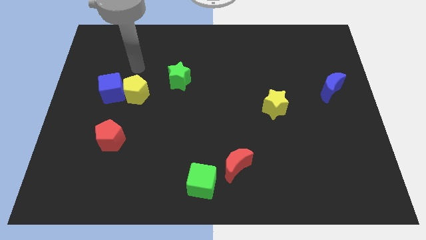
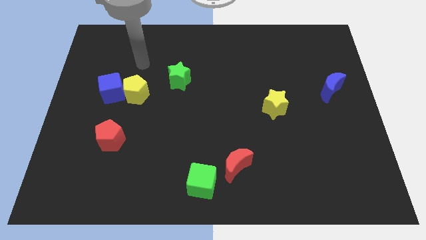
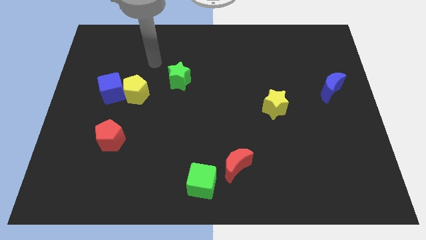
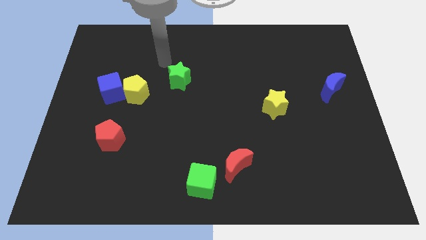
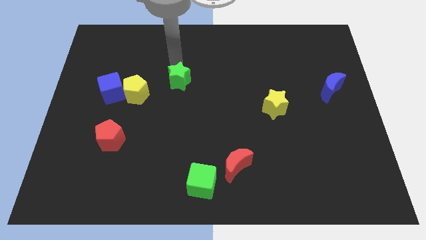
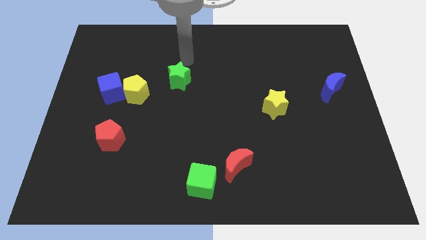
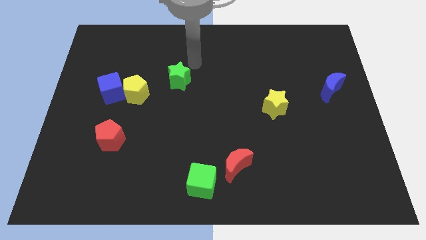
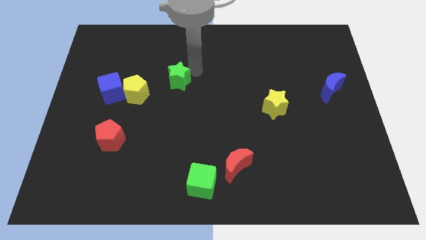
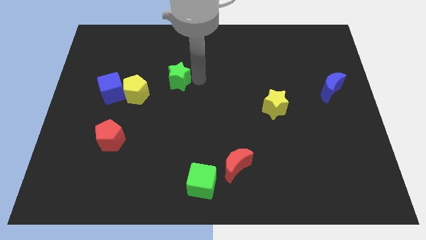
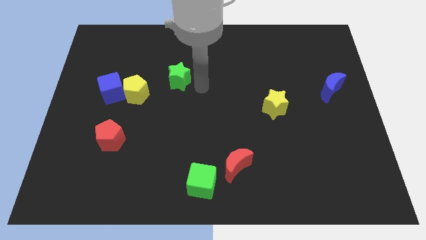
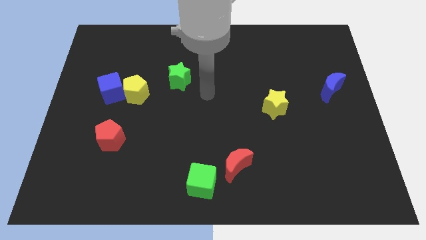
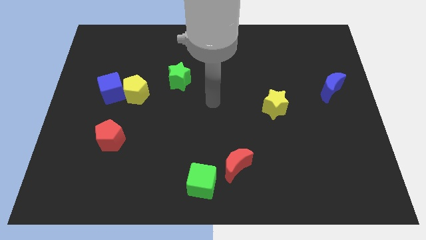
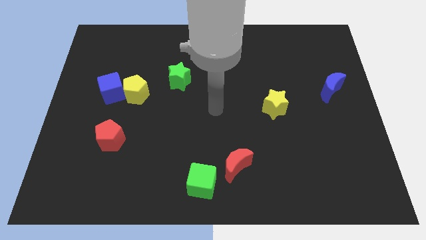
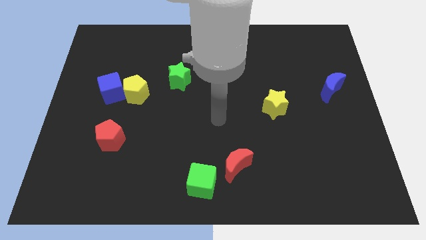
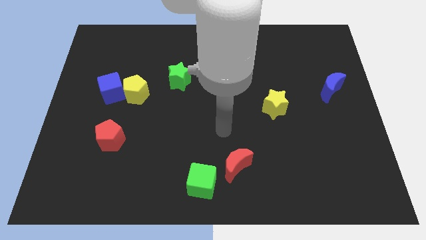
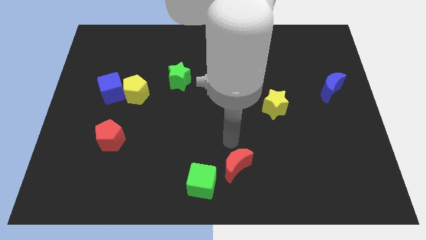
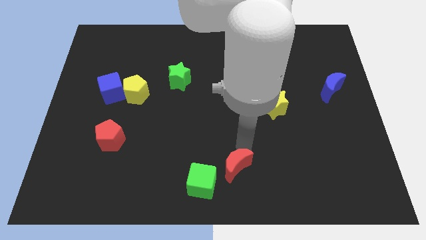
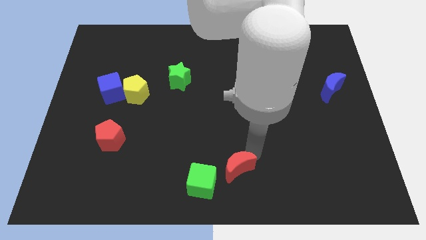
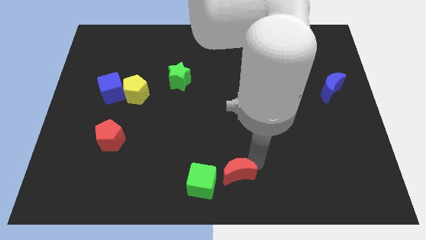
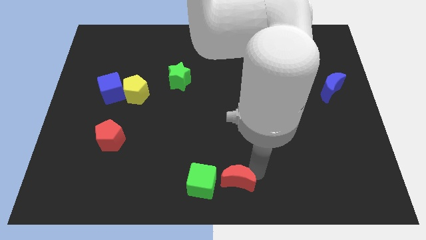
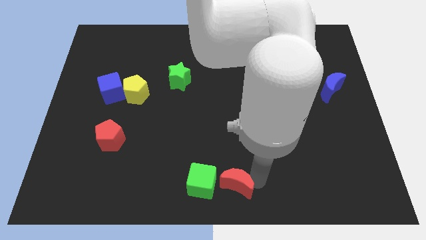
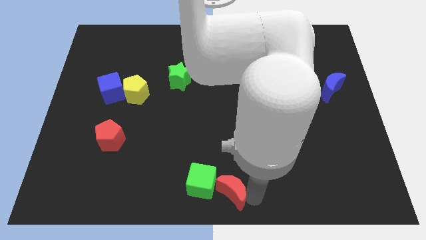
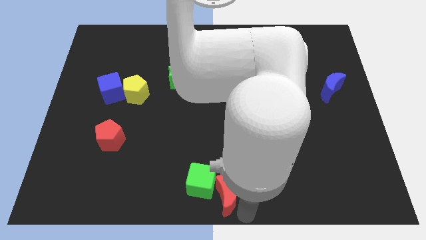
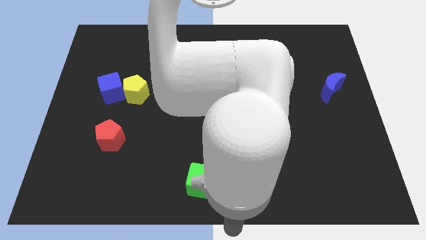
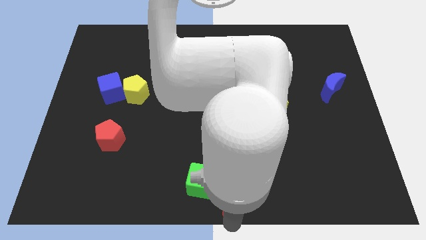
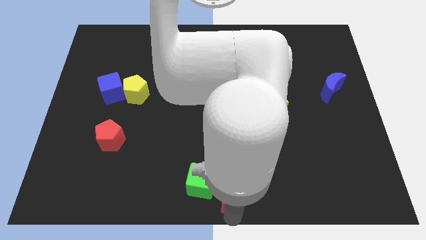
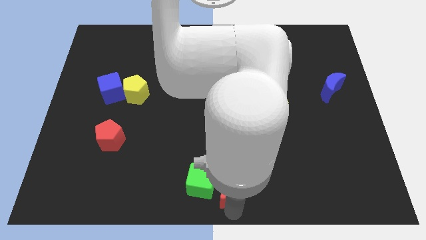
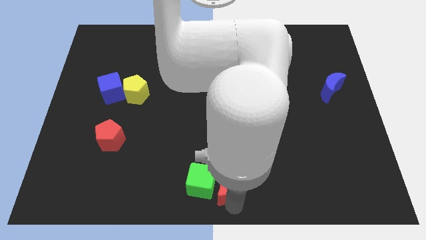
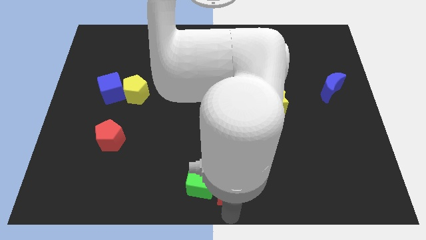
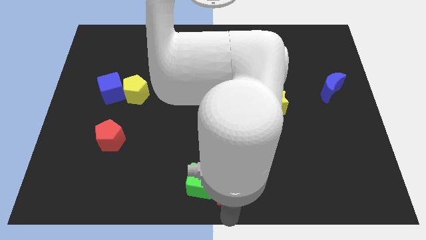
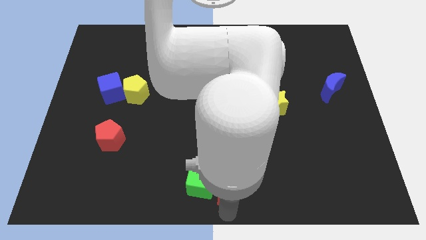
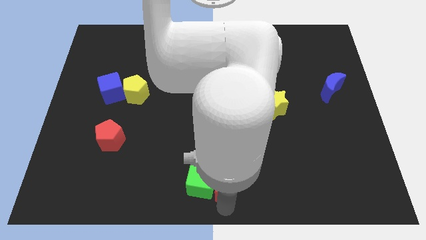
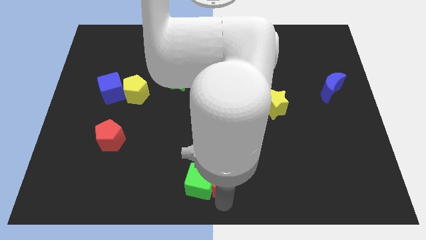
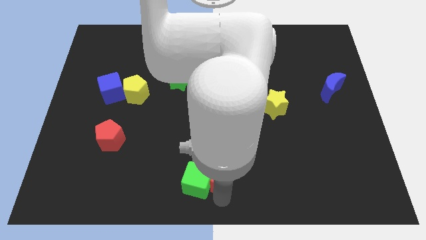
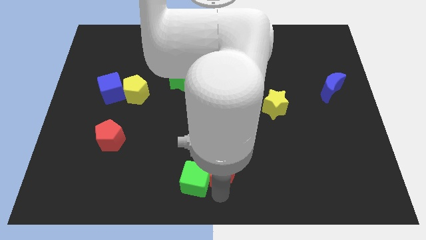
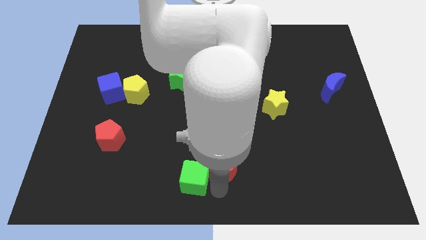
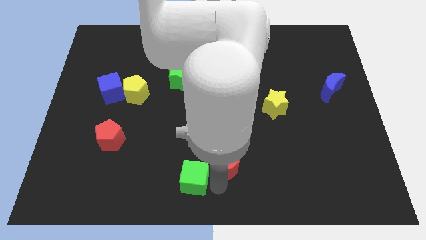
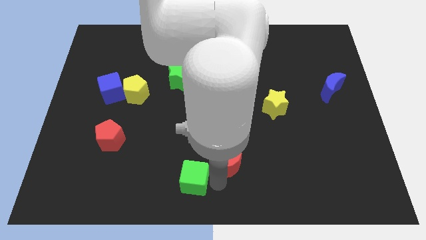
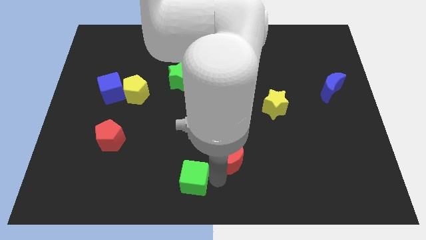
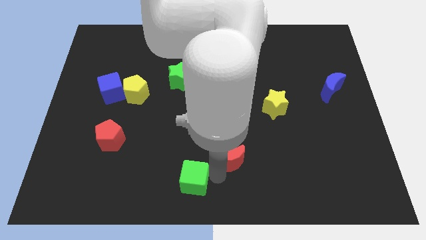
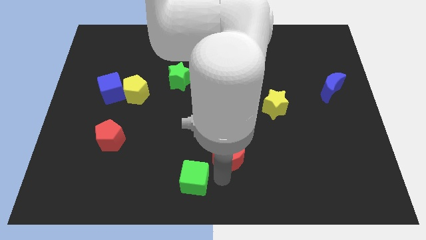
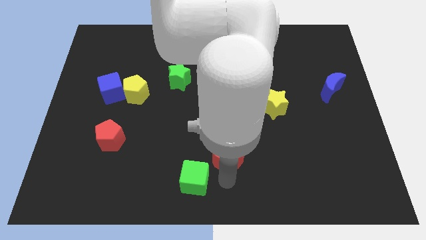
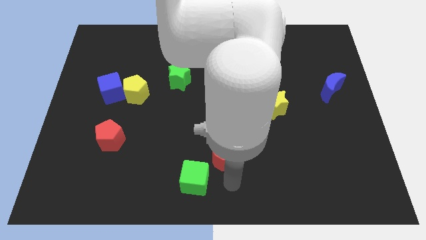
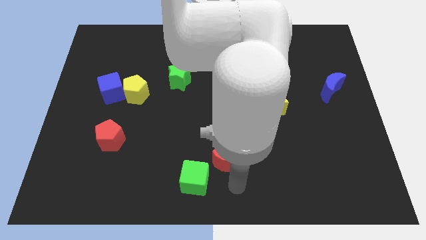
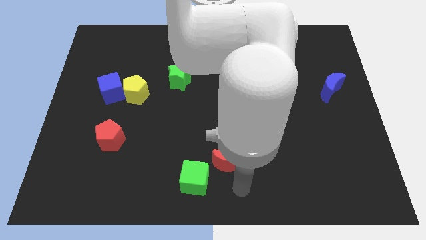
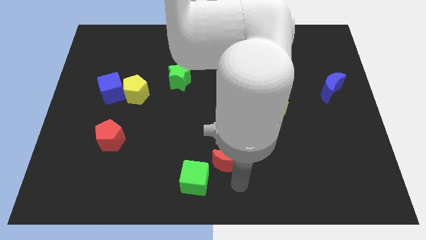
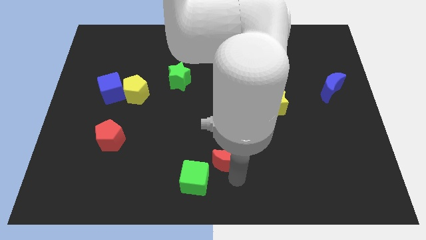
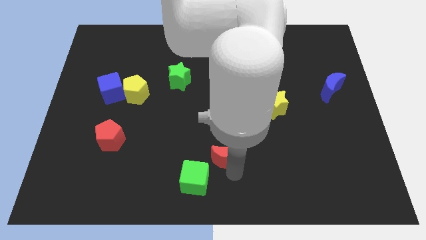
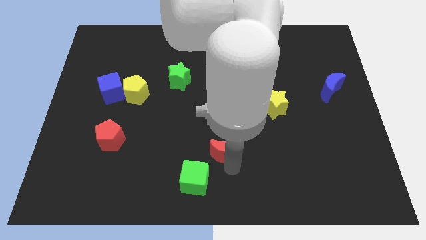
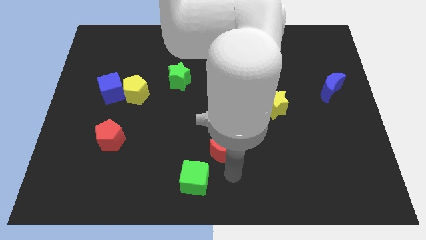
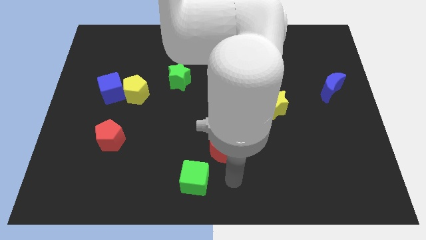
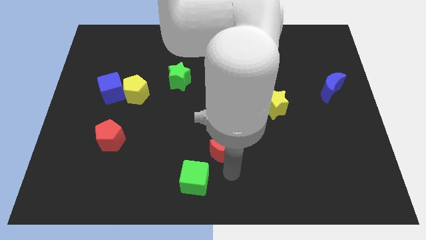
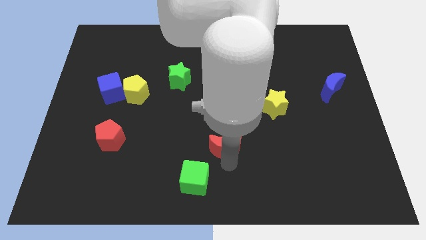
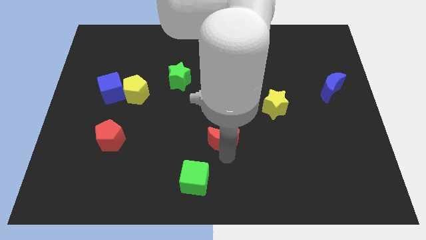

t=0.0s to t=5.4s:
move the red moon to the center
